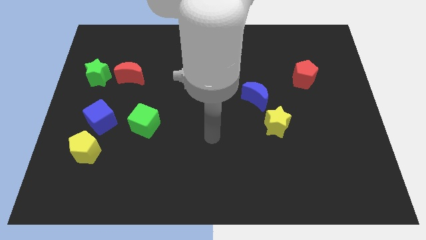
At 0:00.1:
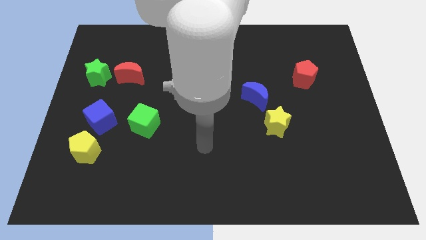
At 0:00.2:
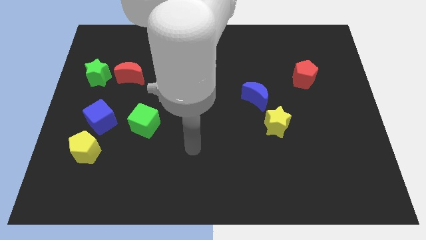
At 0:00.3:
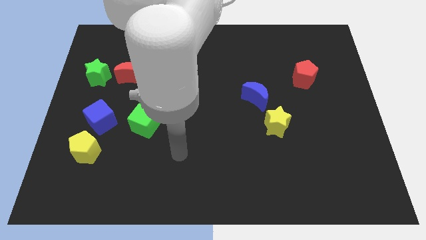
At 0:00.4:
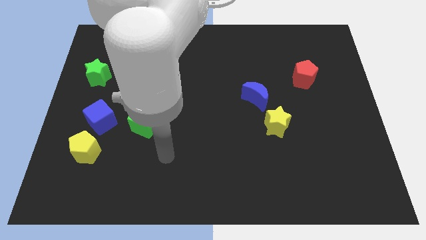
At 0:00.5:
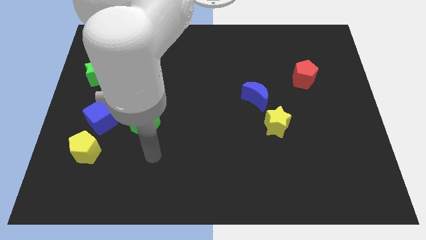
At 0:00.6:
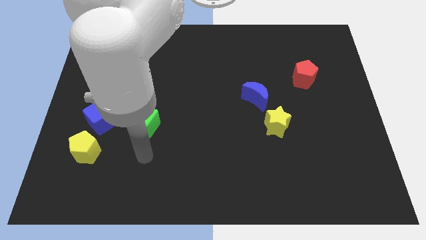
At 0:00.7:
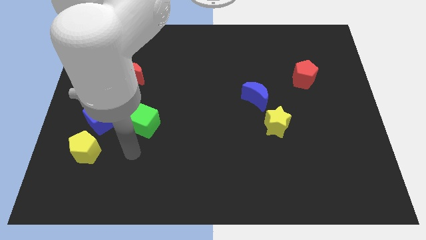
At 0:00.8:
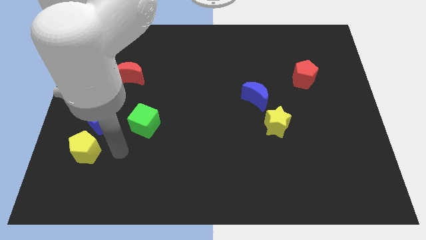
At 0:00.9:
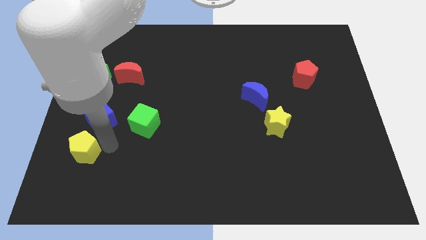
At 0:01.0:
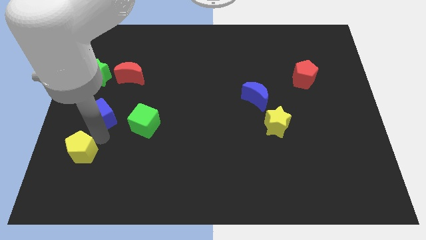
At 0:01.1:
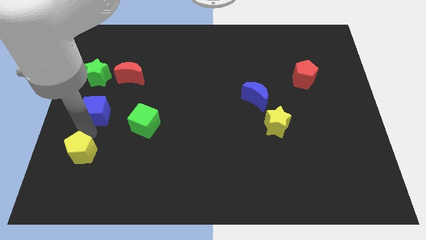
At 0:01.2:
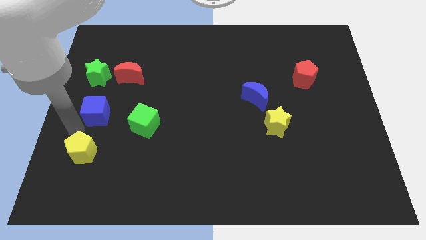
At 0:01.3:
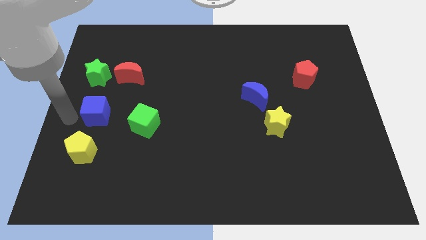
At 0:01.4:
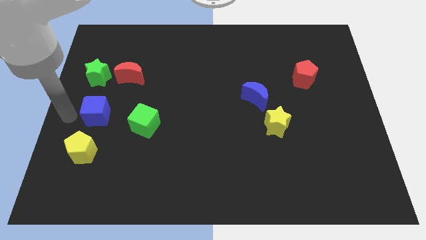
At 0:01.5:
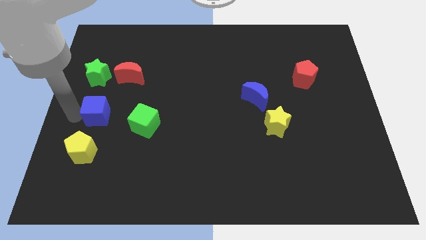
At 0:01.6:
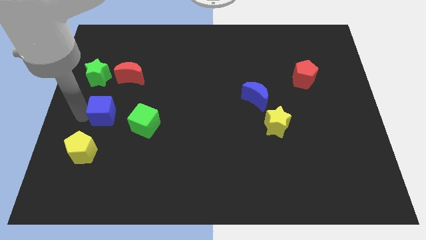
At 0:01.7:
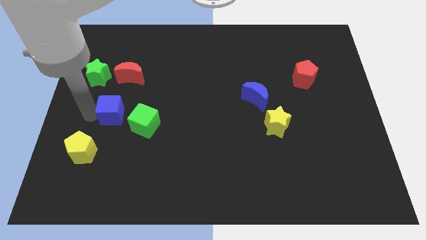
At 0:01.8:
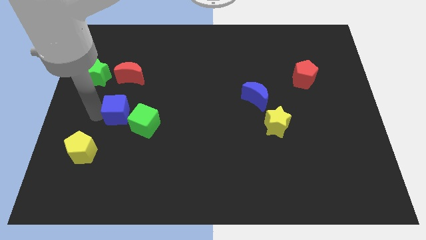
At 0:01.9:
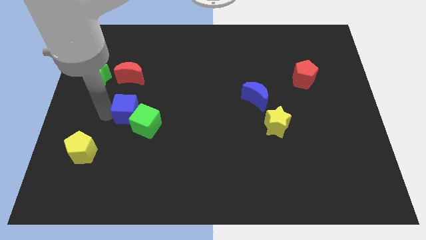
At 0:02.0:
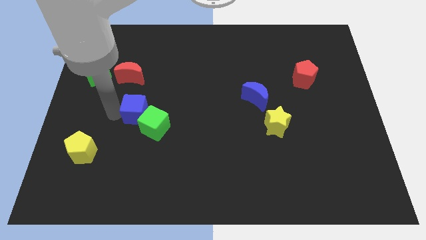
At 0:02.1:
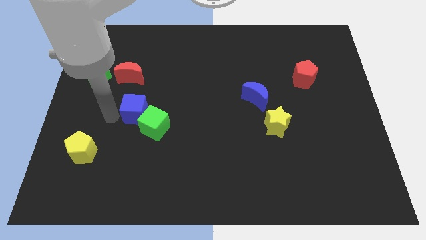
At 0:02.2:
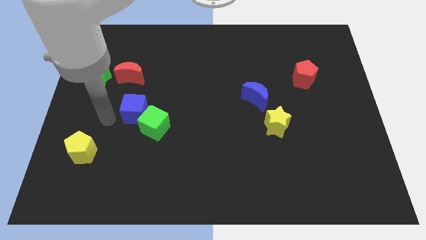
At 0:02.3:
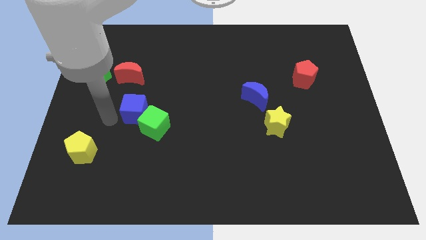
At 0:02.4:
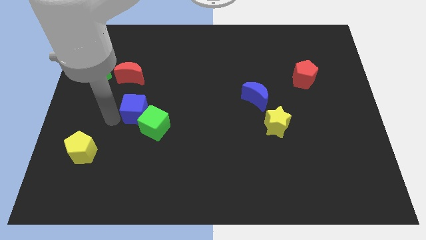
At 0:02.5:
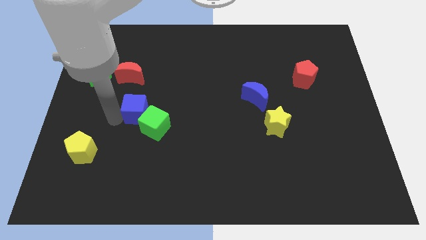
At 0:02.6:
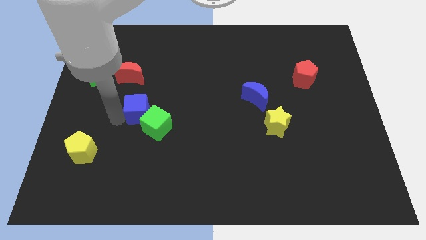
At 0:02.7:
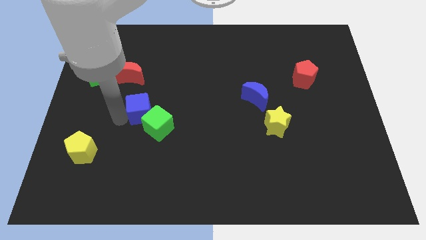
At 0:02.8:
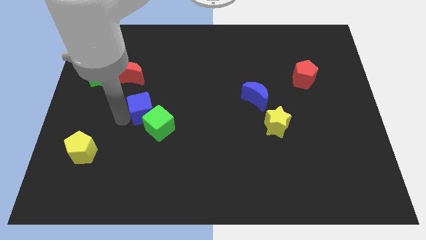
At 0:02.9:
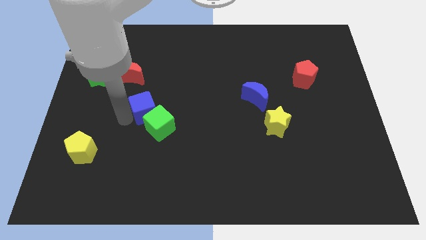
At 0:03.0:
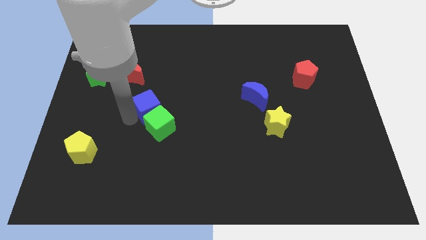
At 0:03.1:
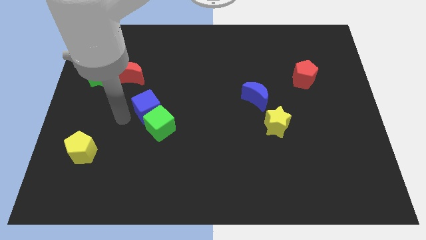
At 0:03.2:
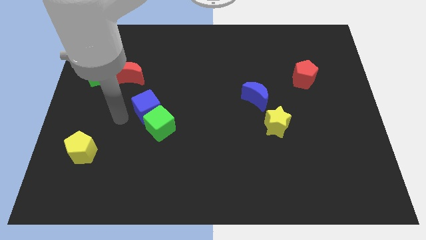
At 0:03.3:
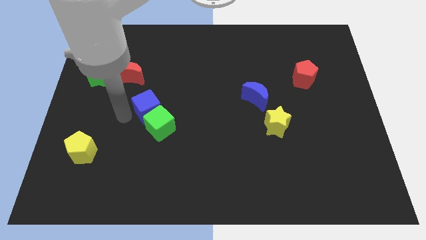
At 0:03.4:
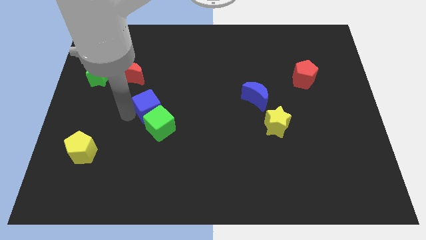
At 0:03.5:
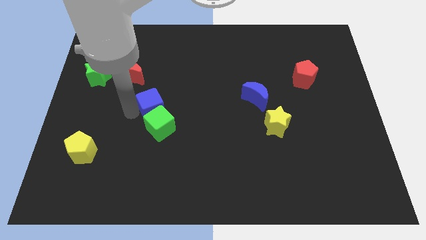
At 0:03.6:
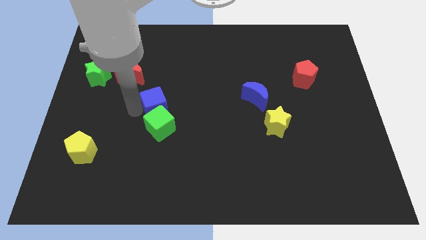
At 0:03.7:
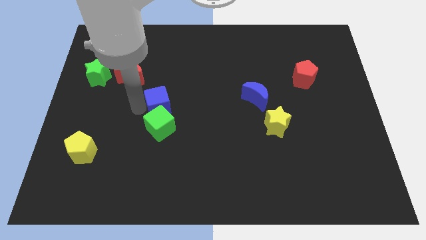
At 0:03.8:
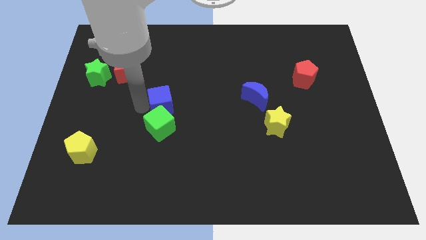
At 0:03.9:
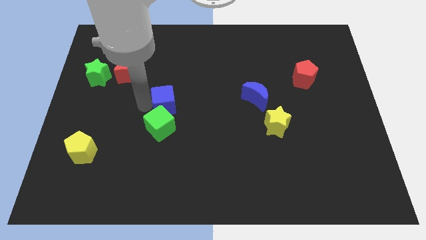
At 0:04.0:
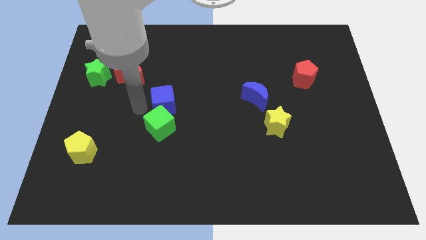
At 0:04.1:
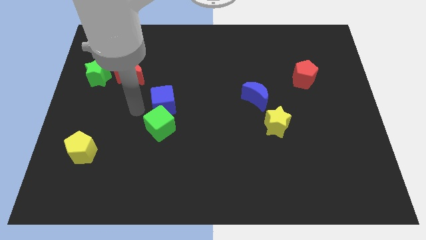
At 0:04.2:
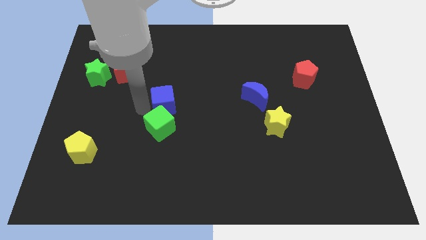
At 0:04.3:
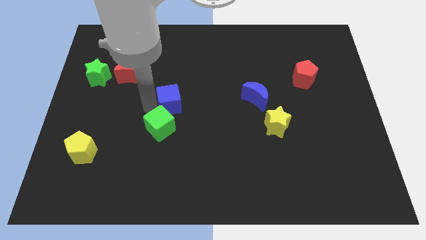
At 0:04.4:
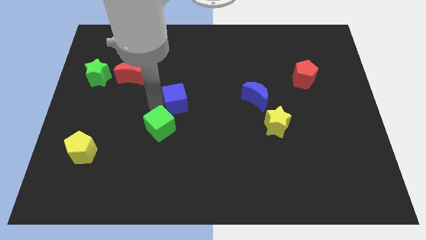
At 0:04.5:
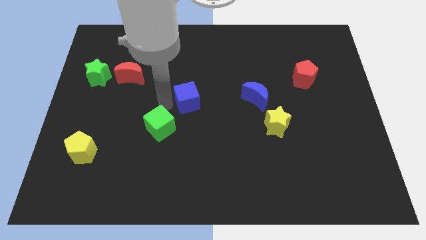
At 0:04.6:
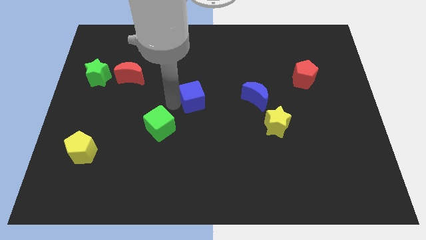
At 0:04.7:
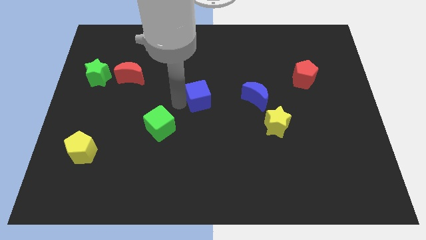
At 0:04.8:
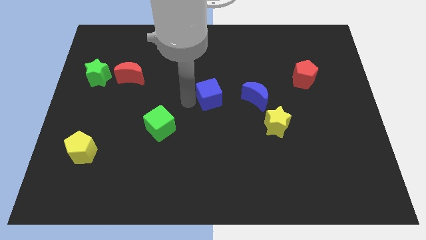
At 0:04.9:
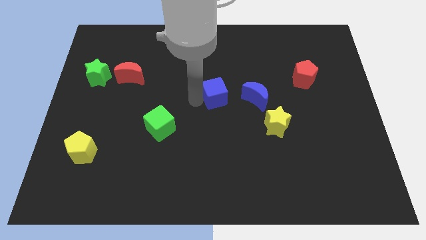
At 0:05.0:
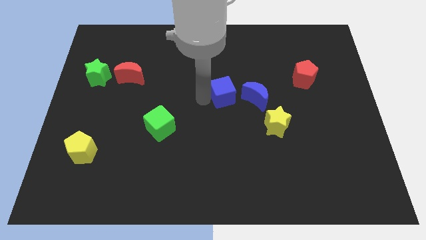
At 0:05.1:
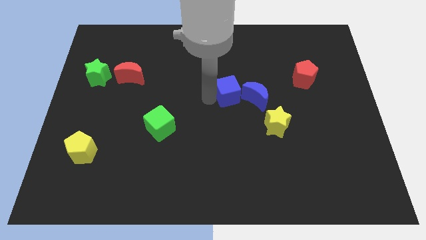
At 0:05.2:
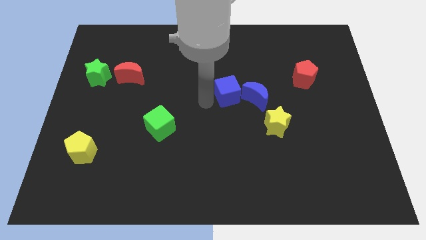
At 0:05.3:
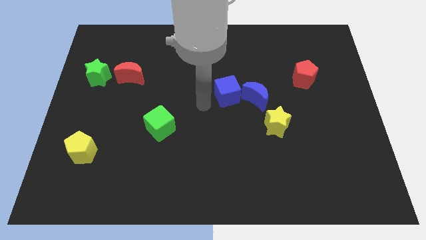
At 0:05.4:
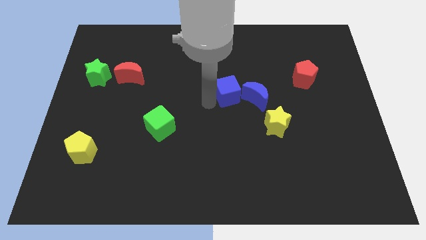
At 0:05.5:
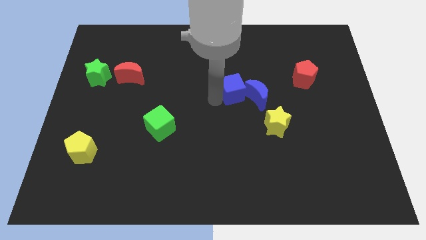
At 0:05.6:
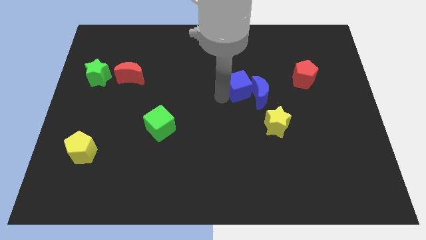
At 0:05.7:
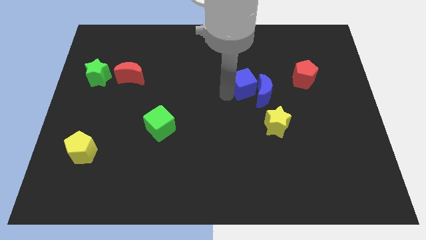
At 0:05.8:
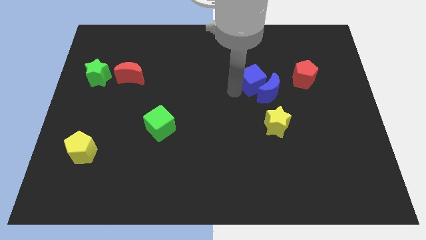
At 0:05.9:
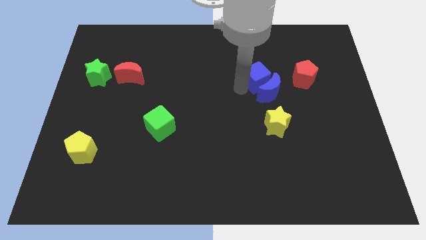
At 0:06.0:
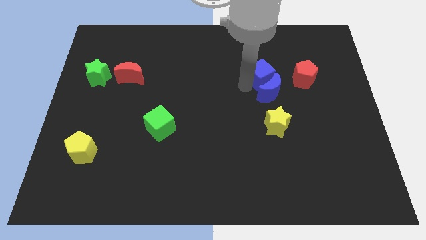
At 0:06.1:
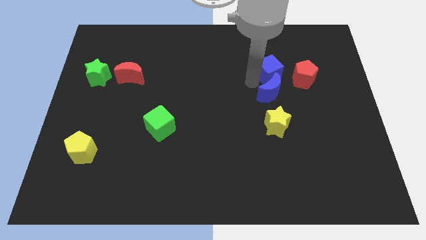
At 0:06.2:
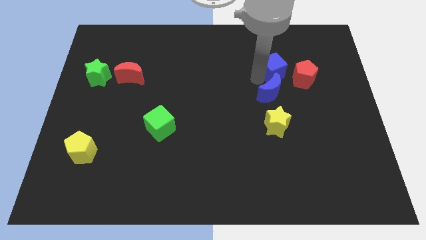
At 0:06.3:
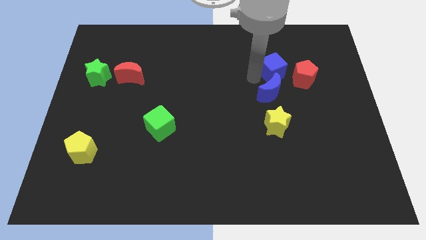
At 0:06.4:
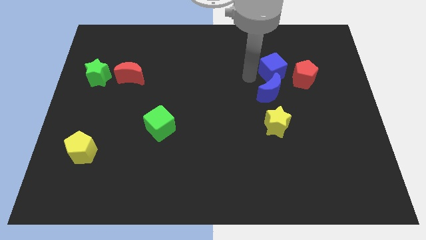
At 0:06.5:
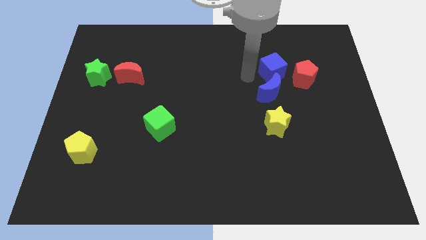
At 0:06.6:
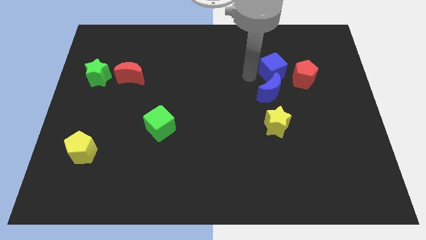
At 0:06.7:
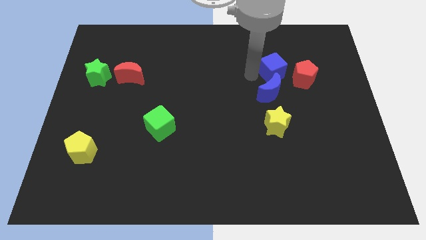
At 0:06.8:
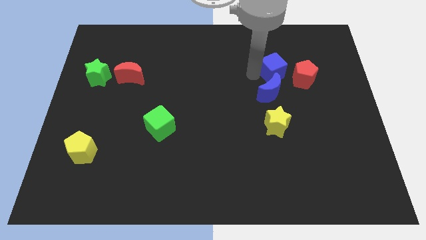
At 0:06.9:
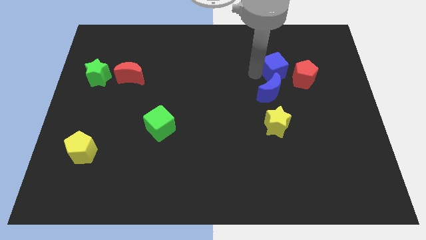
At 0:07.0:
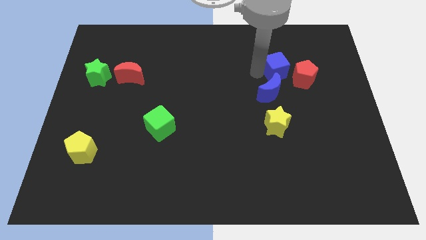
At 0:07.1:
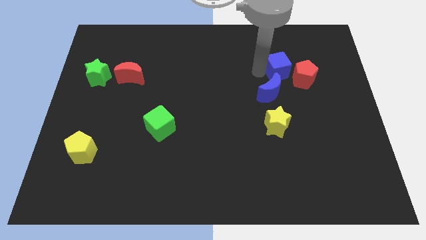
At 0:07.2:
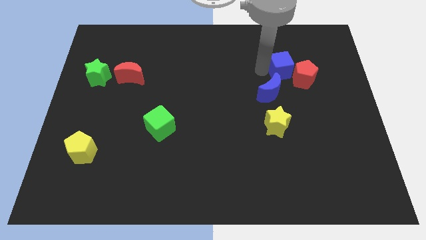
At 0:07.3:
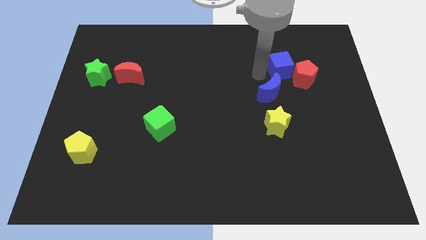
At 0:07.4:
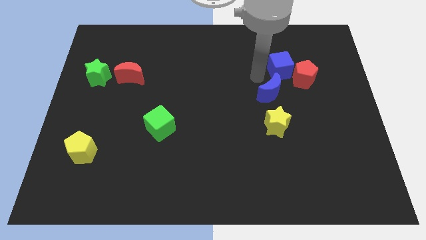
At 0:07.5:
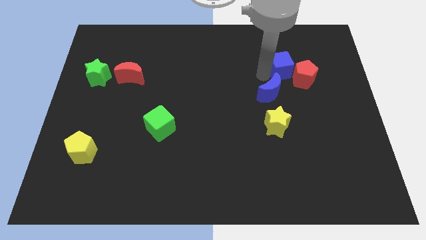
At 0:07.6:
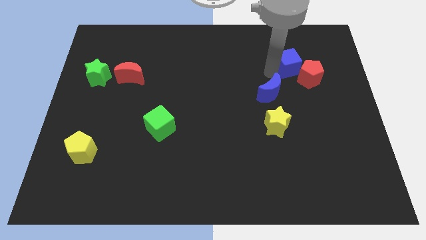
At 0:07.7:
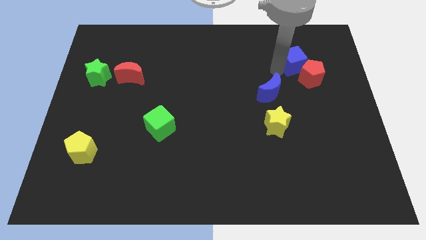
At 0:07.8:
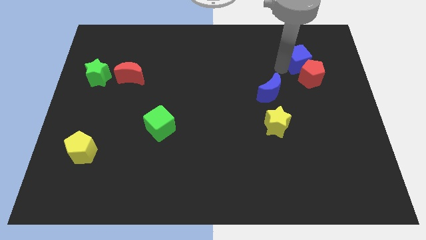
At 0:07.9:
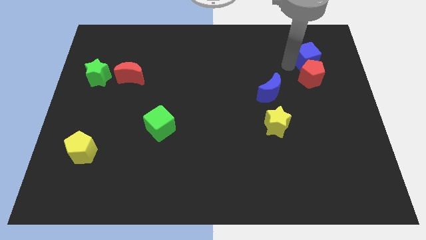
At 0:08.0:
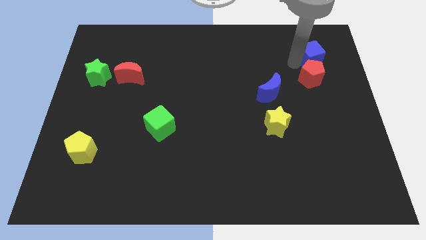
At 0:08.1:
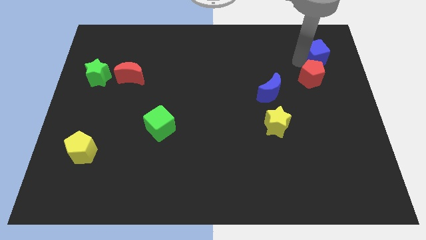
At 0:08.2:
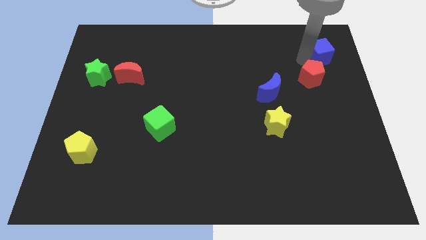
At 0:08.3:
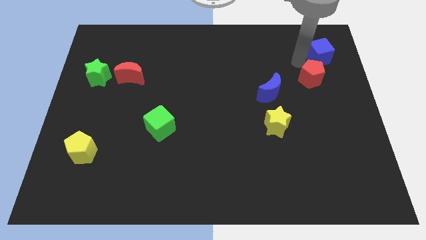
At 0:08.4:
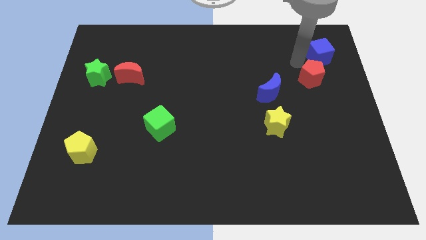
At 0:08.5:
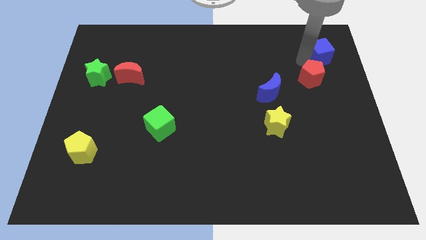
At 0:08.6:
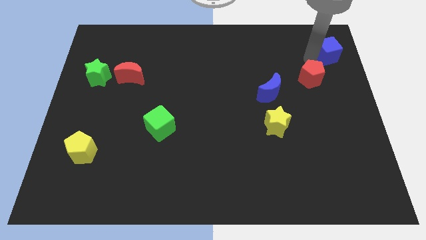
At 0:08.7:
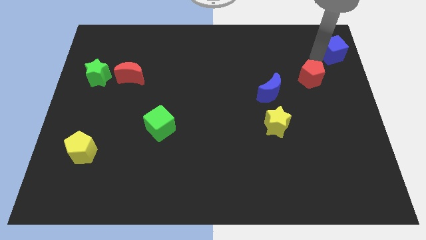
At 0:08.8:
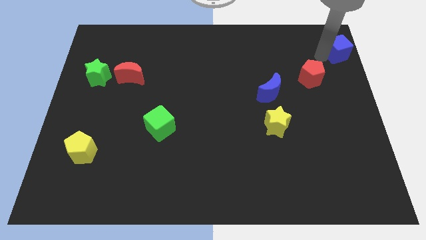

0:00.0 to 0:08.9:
slide the blue cube to the top right of the board
